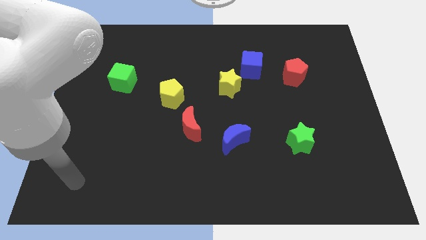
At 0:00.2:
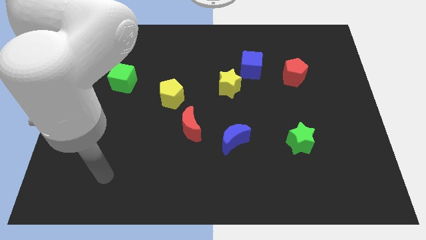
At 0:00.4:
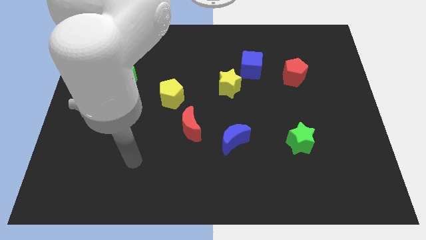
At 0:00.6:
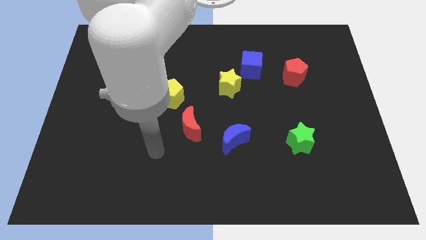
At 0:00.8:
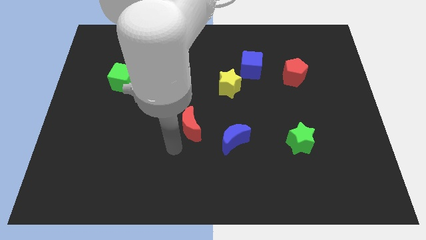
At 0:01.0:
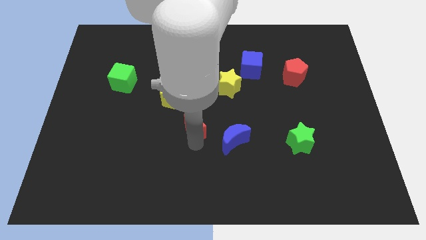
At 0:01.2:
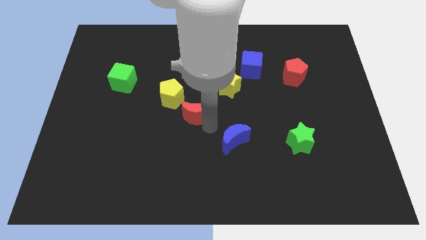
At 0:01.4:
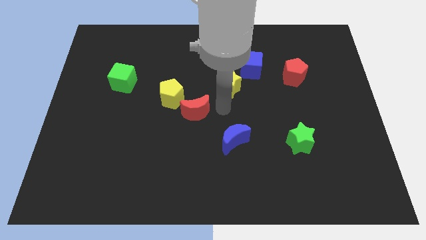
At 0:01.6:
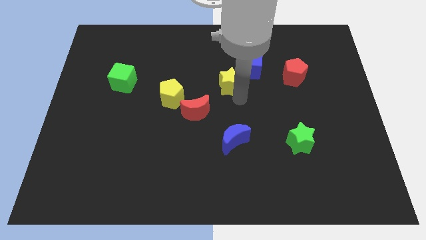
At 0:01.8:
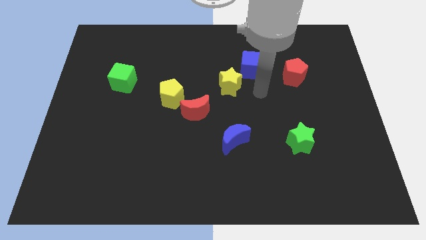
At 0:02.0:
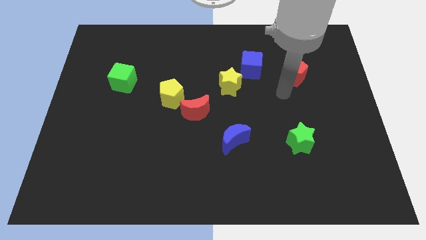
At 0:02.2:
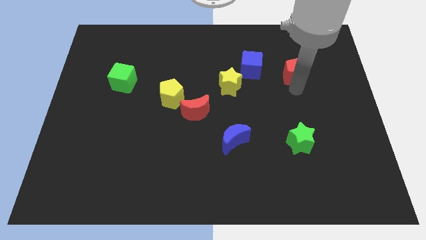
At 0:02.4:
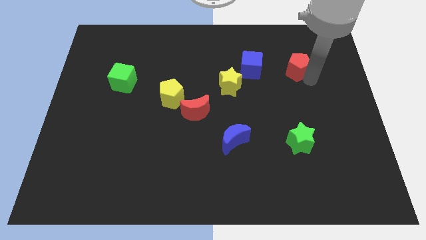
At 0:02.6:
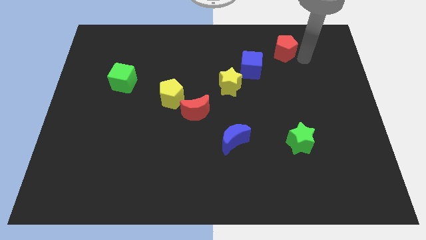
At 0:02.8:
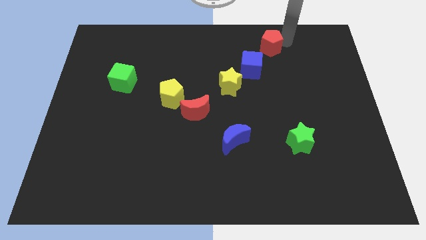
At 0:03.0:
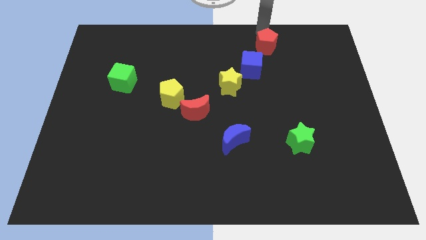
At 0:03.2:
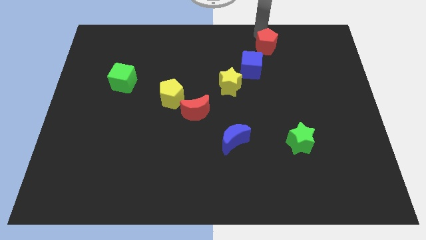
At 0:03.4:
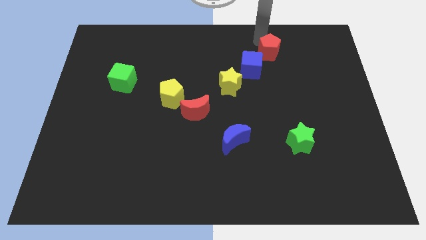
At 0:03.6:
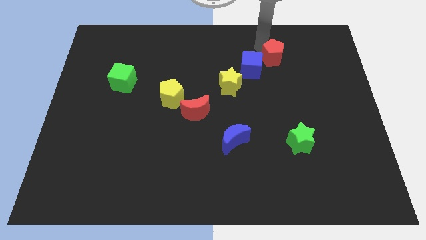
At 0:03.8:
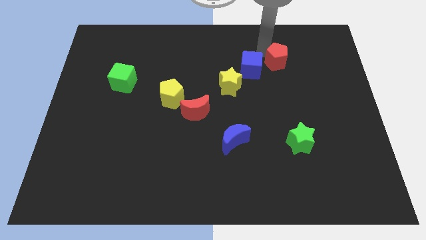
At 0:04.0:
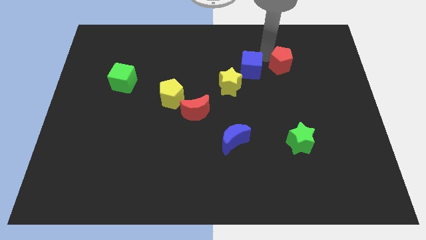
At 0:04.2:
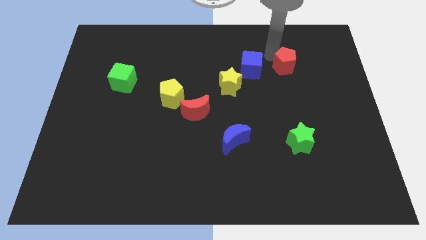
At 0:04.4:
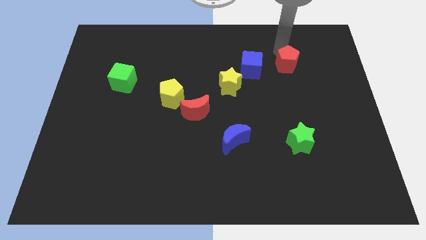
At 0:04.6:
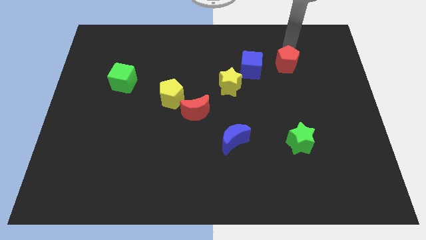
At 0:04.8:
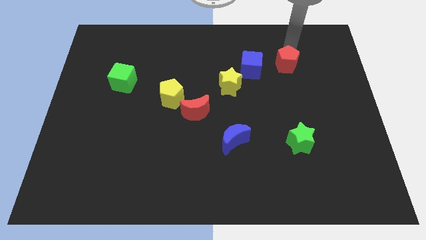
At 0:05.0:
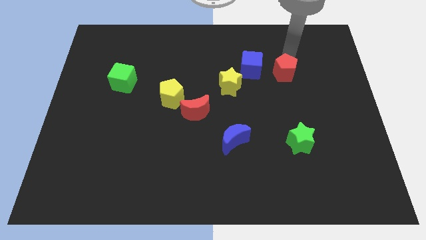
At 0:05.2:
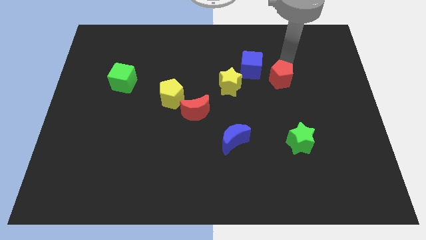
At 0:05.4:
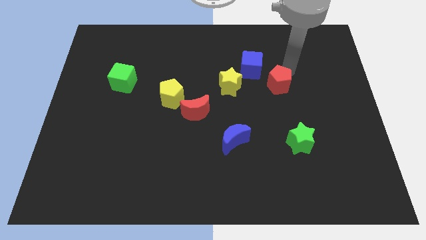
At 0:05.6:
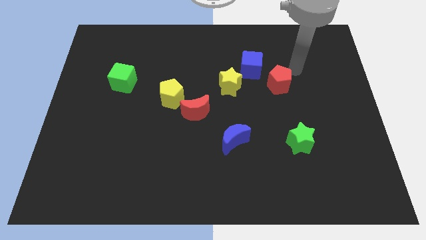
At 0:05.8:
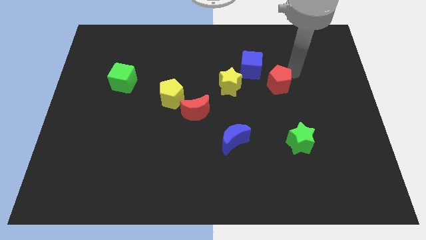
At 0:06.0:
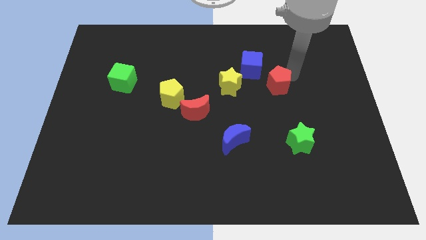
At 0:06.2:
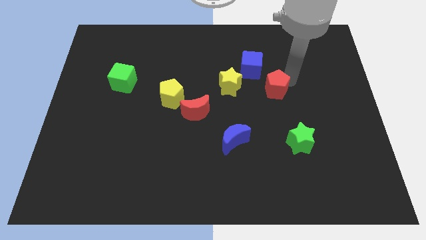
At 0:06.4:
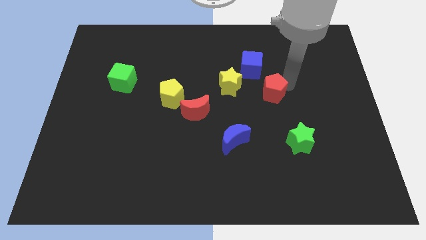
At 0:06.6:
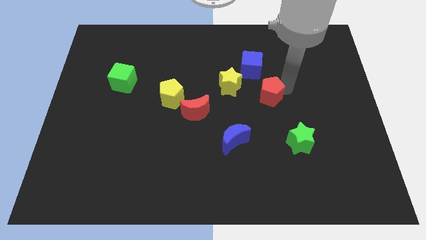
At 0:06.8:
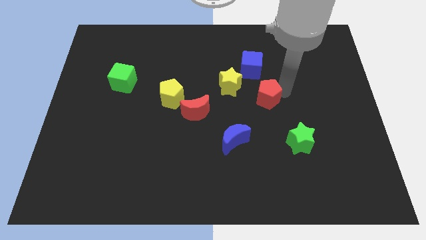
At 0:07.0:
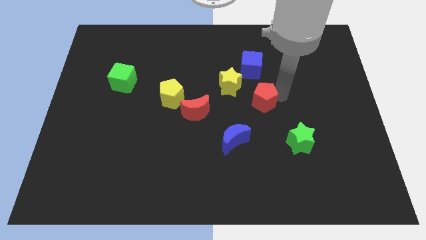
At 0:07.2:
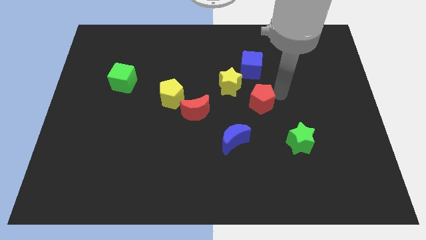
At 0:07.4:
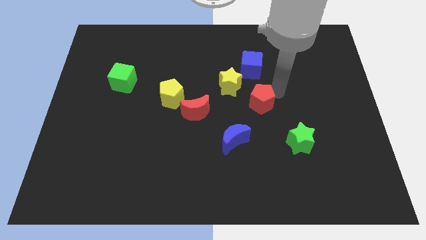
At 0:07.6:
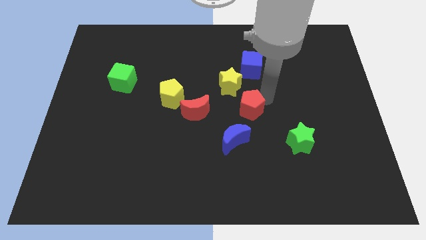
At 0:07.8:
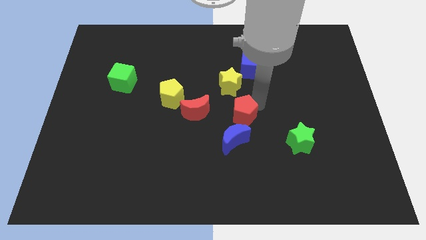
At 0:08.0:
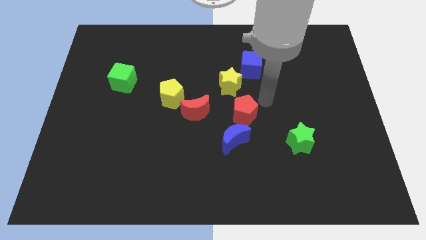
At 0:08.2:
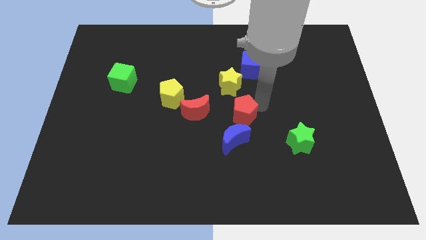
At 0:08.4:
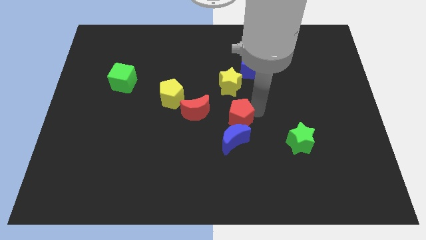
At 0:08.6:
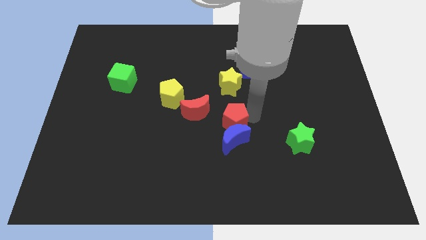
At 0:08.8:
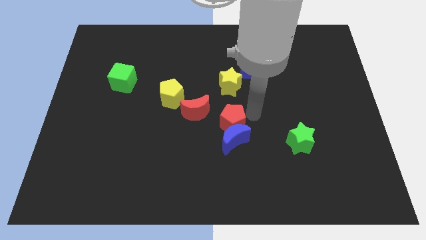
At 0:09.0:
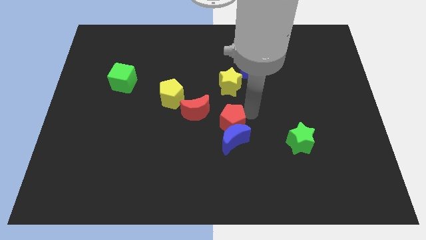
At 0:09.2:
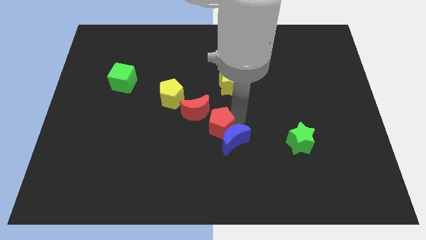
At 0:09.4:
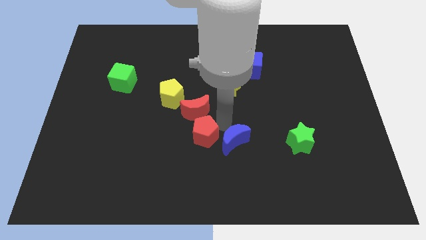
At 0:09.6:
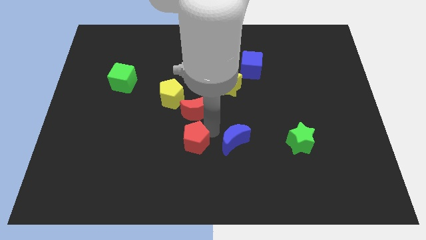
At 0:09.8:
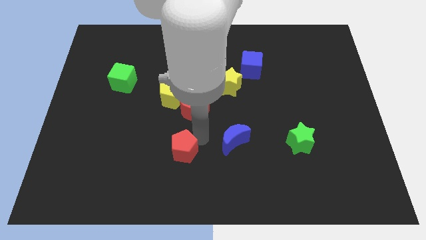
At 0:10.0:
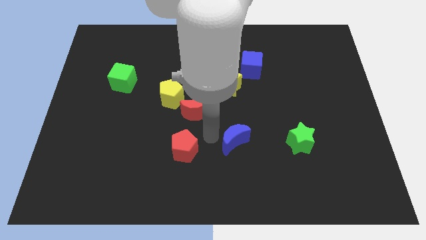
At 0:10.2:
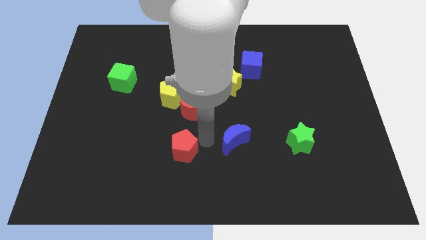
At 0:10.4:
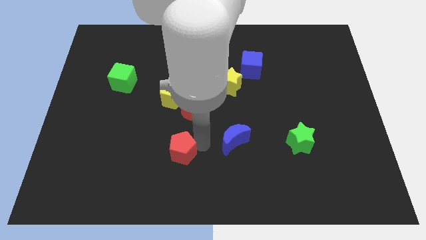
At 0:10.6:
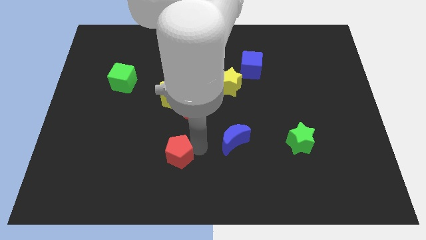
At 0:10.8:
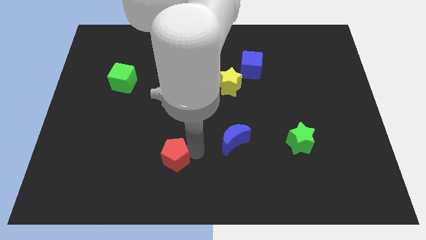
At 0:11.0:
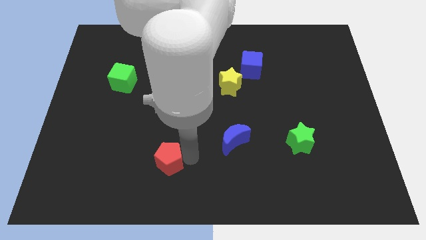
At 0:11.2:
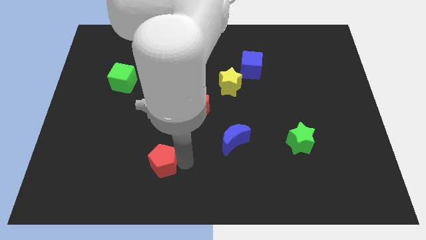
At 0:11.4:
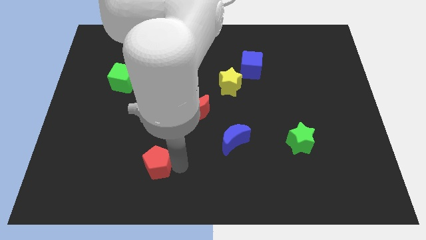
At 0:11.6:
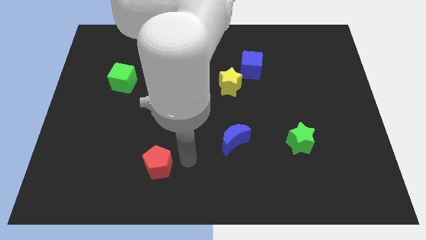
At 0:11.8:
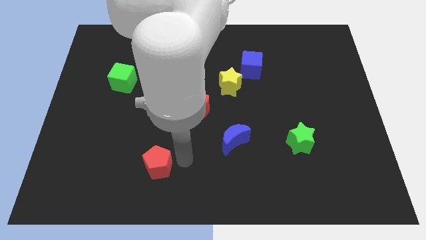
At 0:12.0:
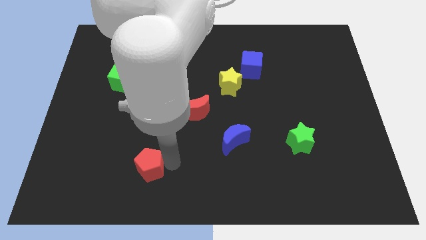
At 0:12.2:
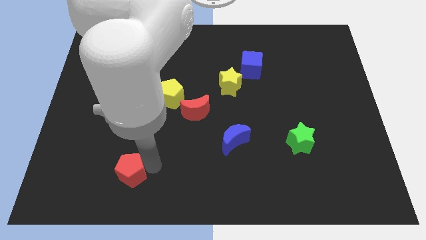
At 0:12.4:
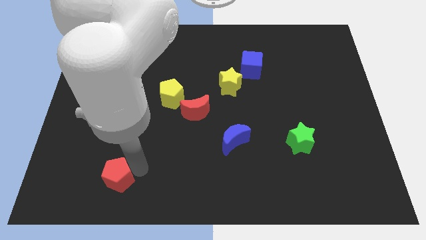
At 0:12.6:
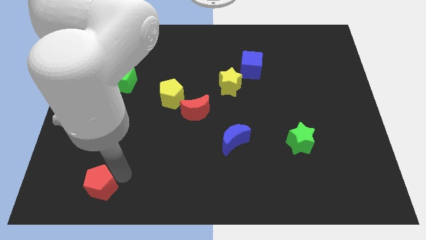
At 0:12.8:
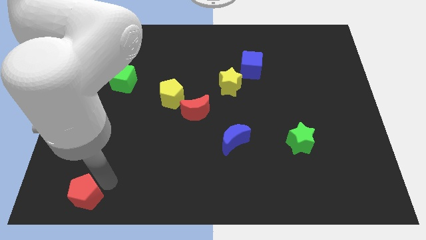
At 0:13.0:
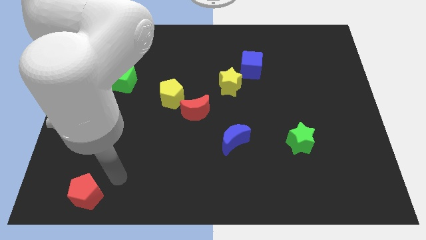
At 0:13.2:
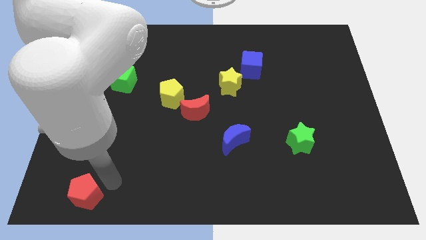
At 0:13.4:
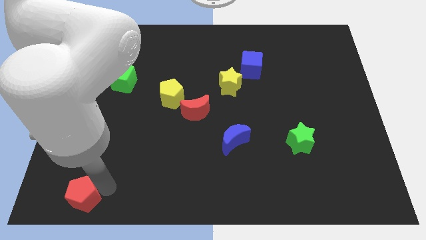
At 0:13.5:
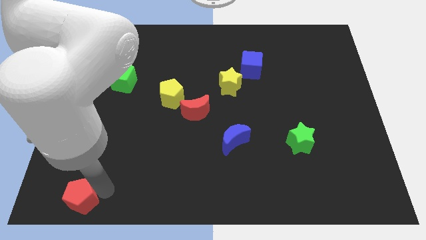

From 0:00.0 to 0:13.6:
put the red pentagon to the bottom left of the board
